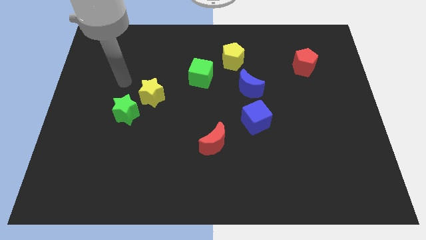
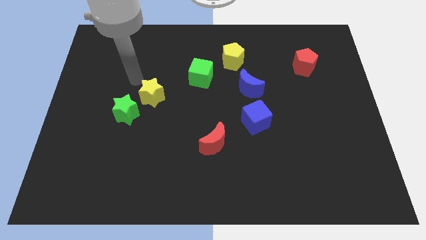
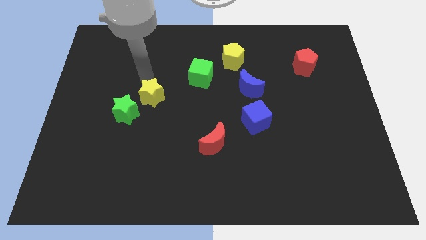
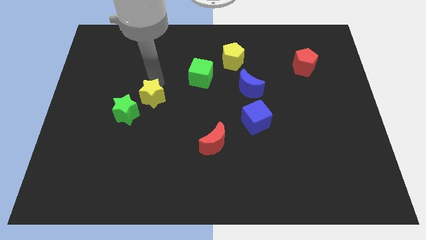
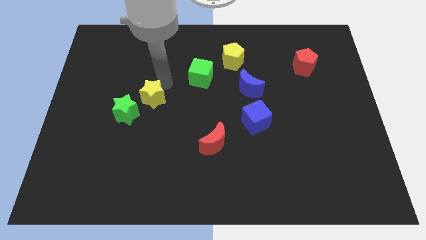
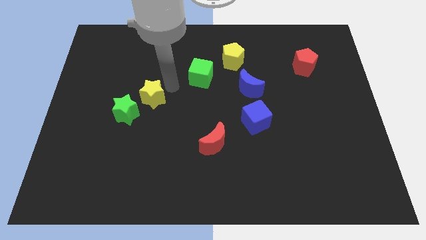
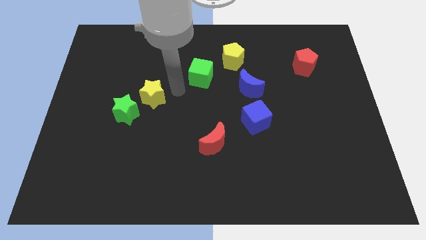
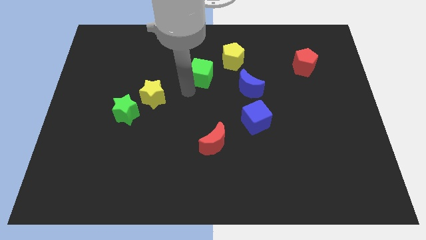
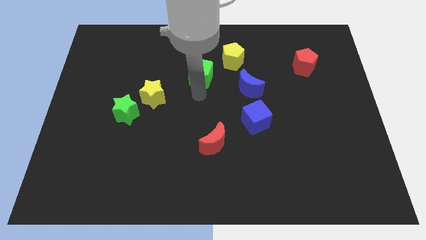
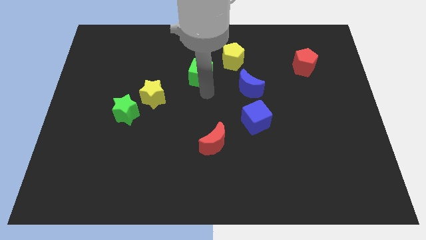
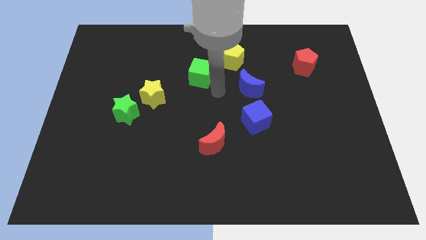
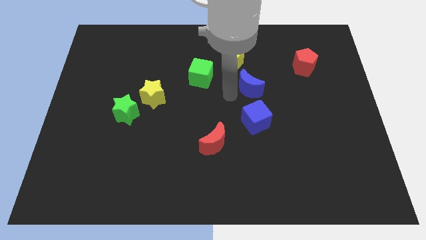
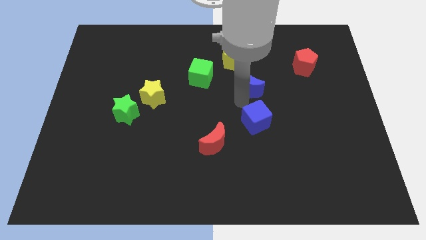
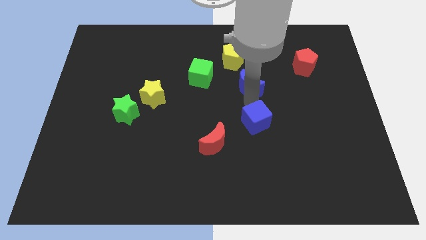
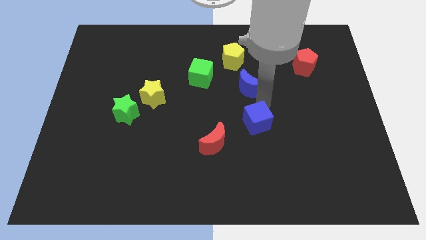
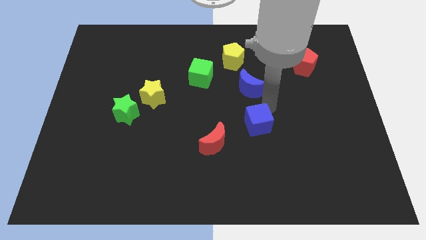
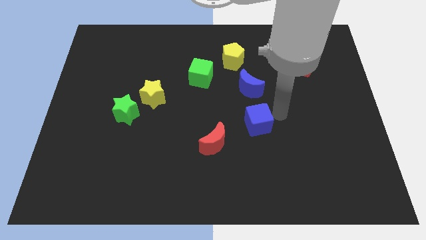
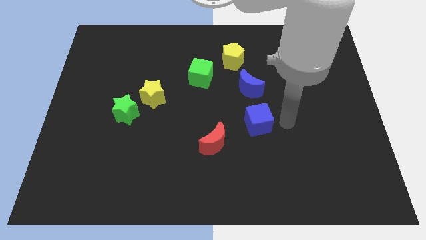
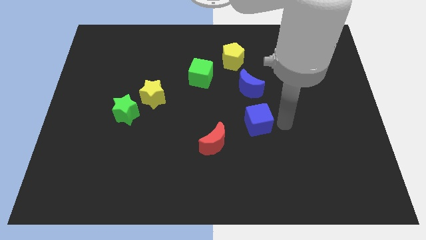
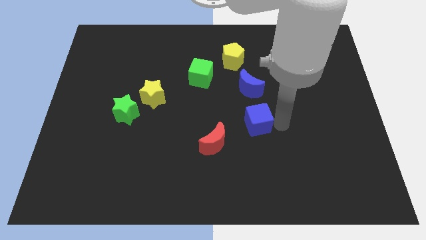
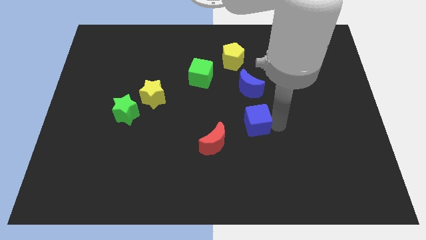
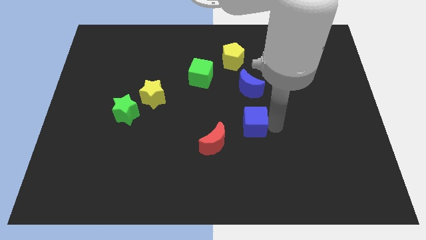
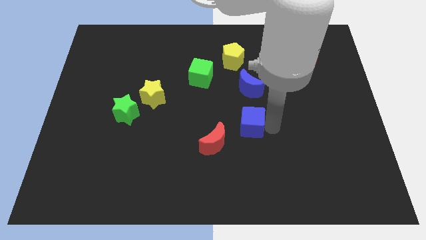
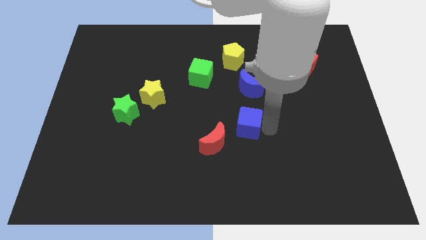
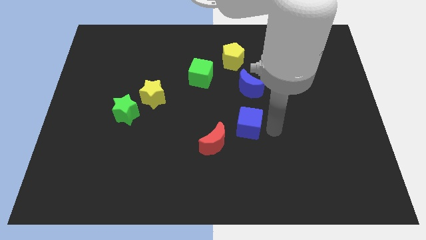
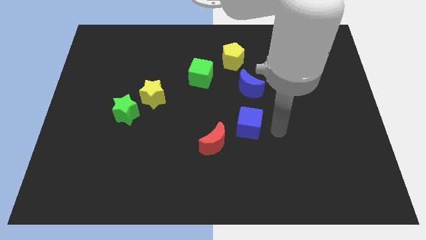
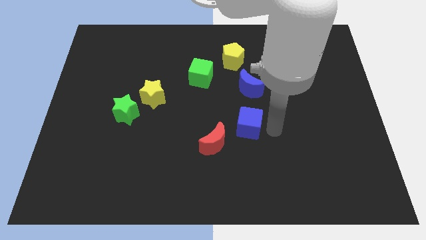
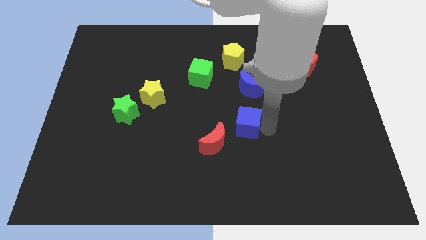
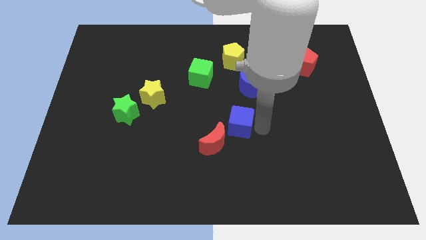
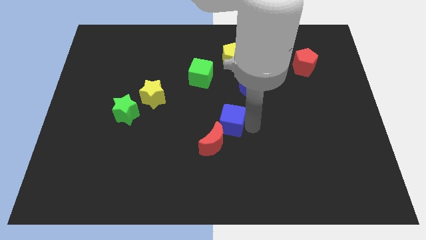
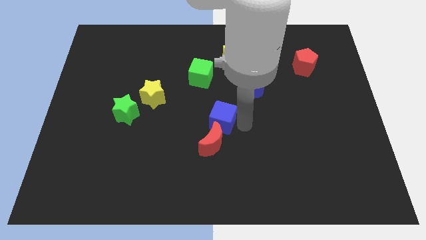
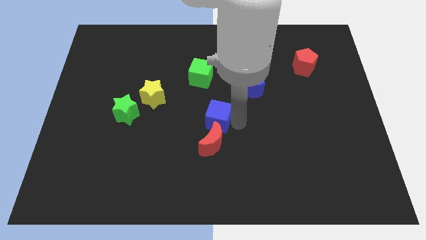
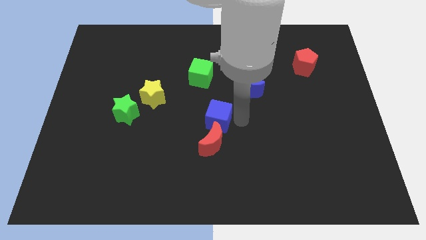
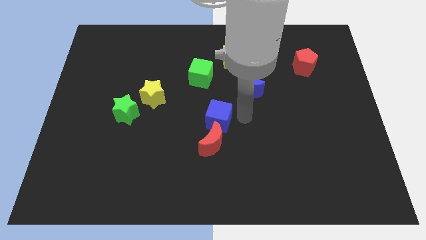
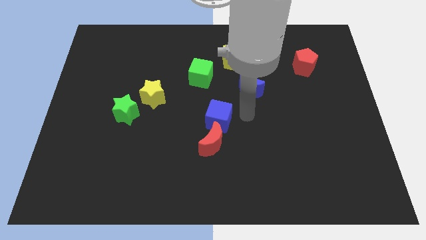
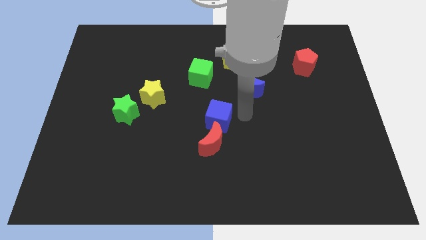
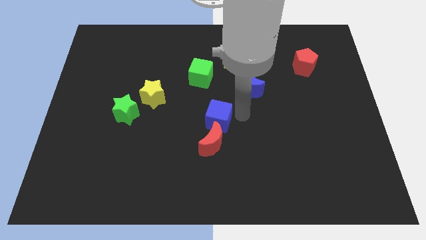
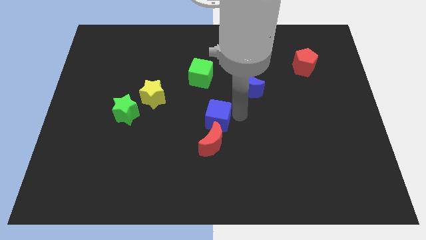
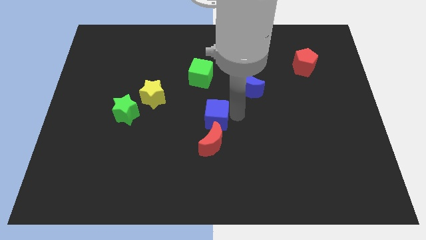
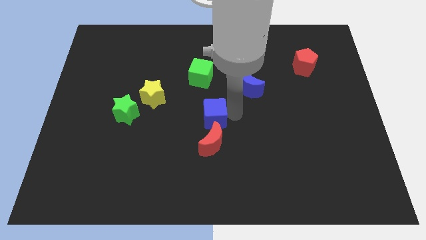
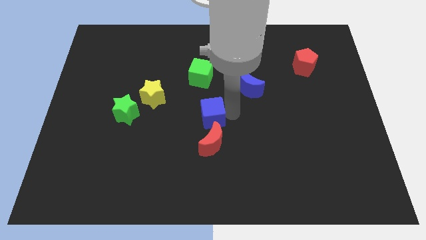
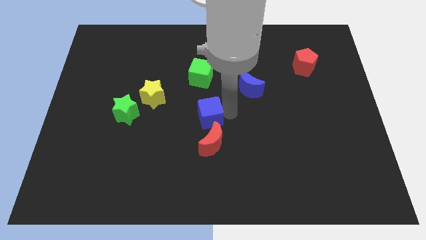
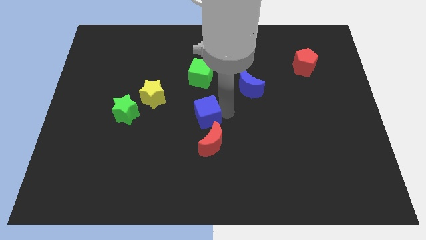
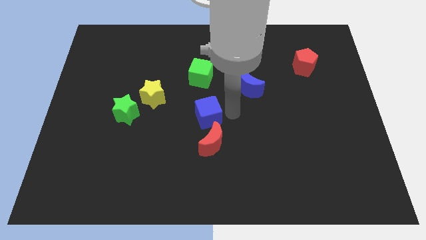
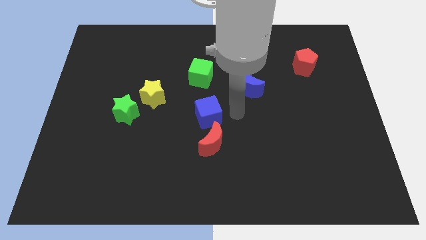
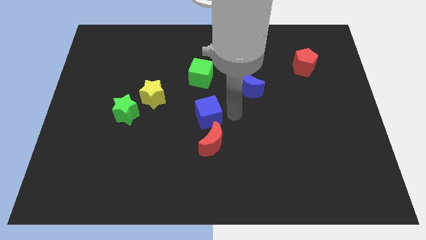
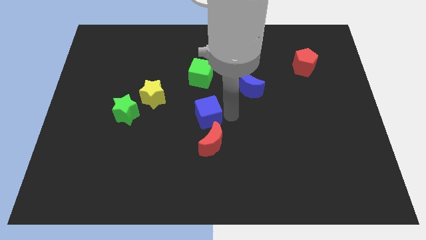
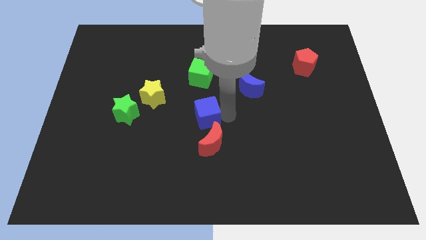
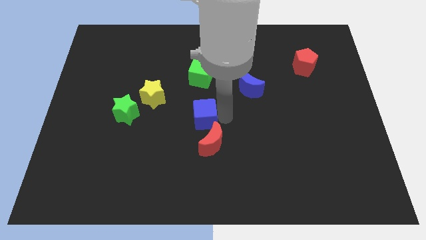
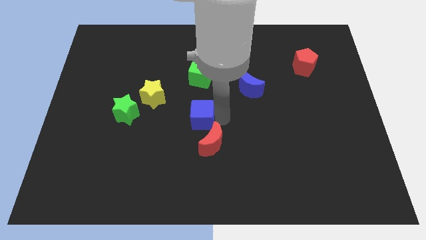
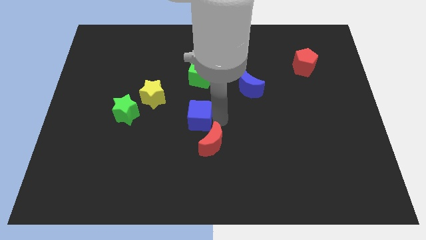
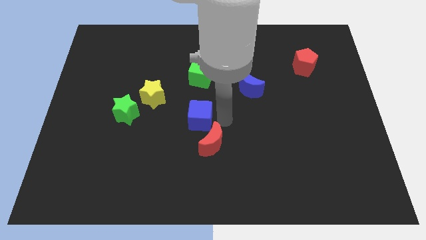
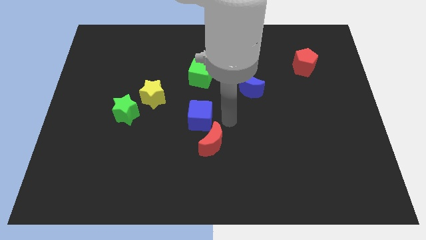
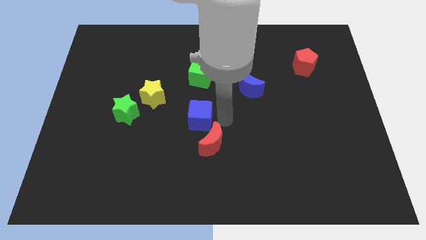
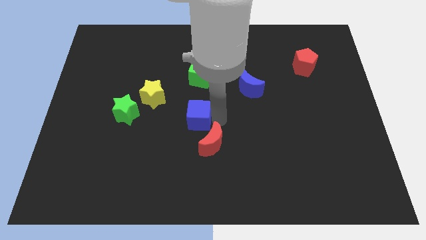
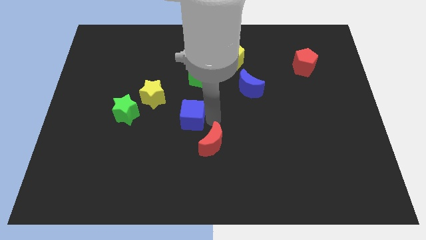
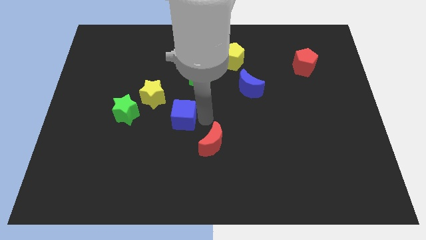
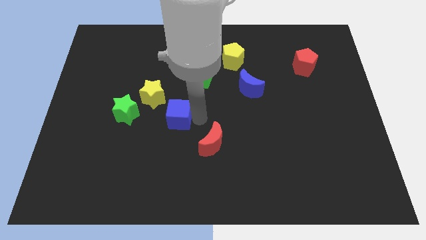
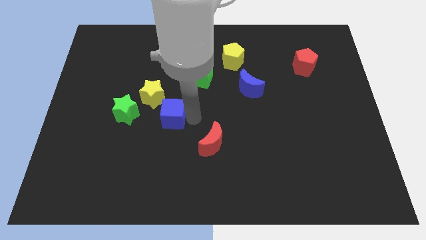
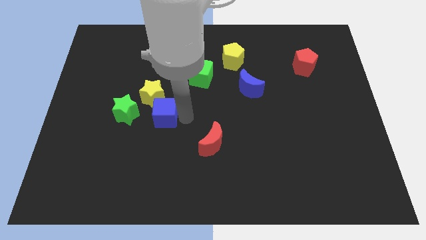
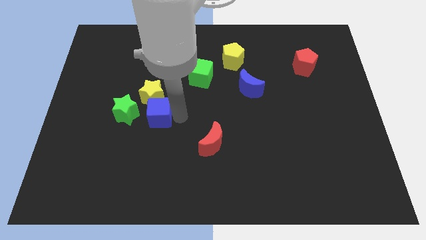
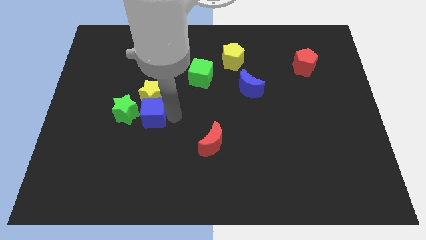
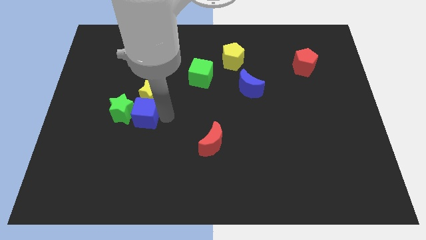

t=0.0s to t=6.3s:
put the blue cube next to the green star
